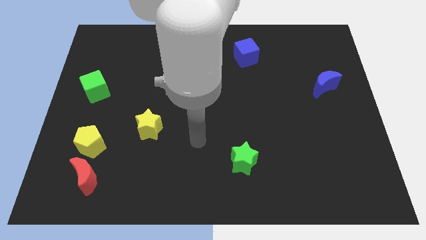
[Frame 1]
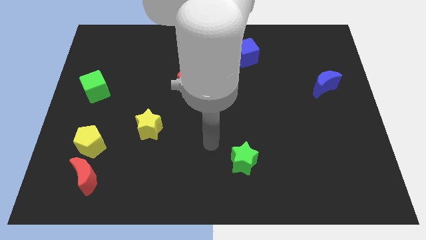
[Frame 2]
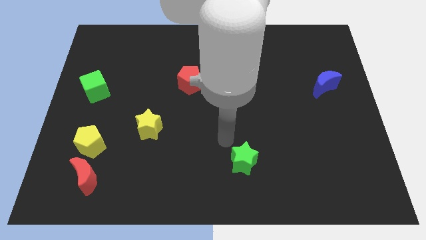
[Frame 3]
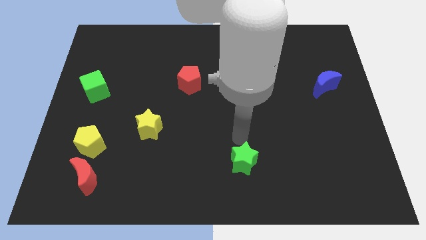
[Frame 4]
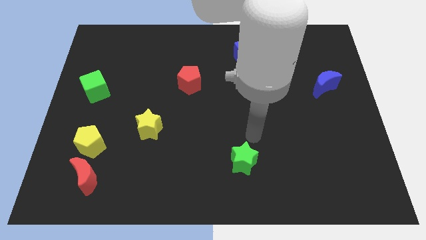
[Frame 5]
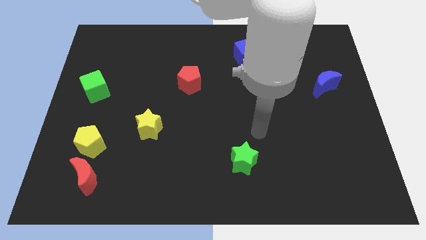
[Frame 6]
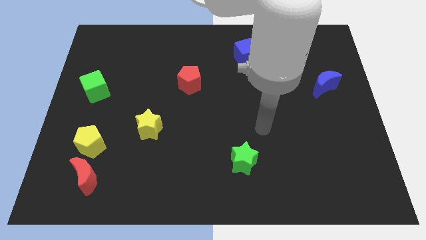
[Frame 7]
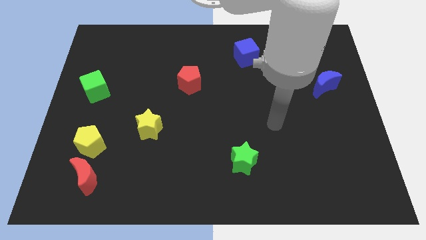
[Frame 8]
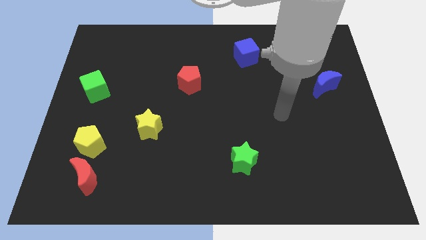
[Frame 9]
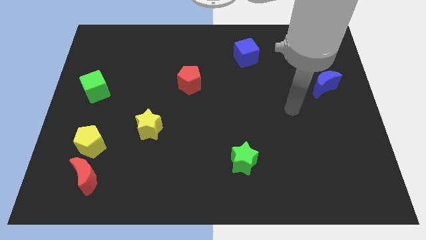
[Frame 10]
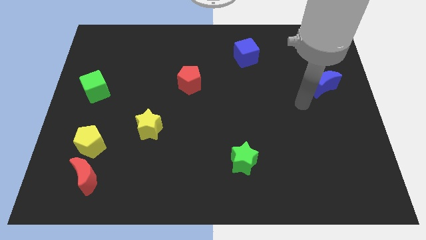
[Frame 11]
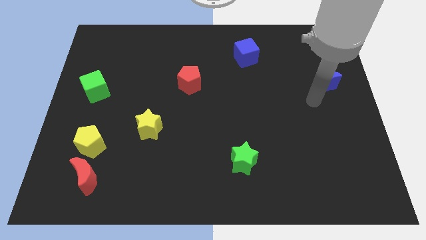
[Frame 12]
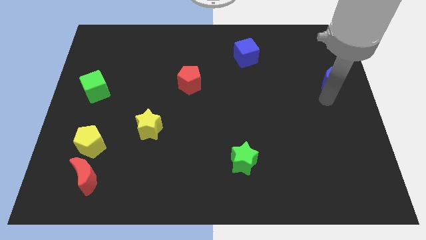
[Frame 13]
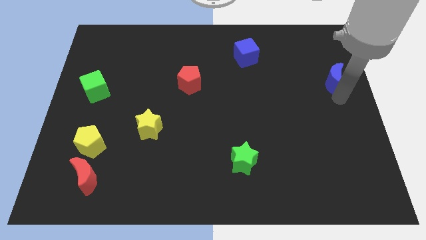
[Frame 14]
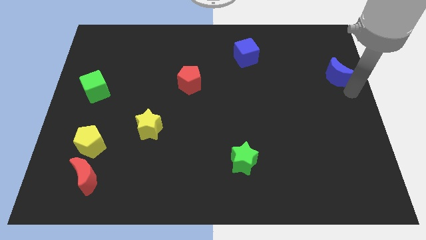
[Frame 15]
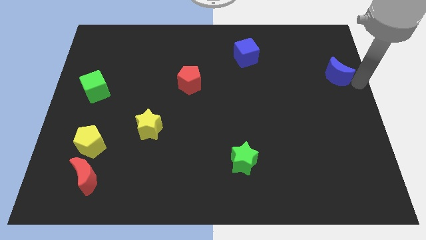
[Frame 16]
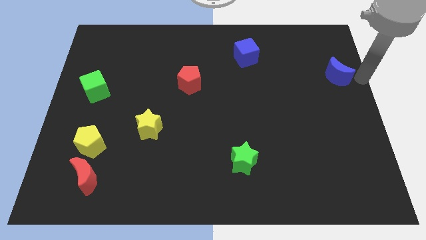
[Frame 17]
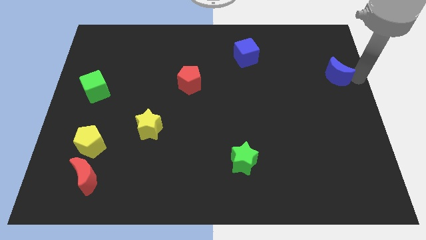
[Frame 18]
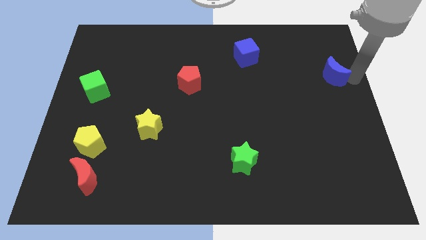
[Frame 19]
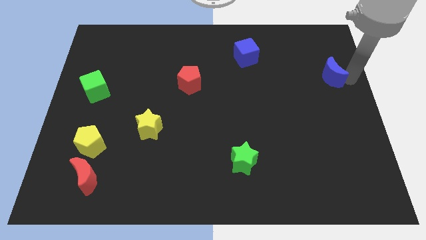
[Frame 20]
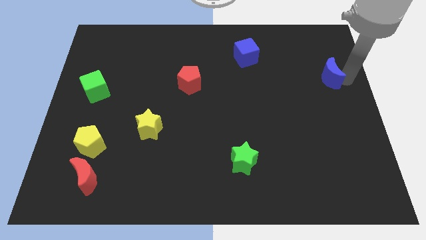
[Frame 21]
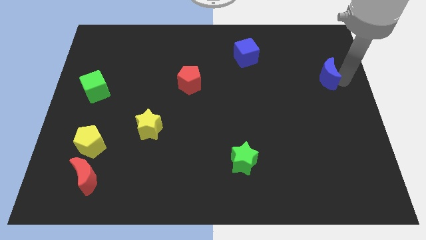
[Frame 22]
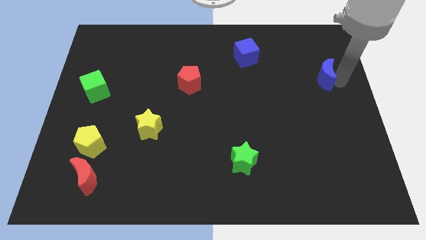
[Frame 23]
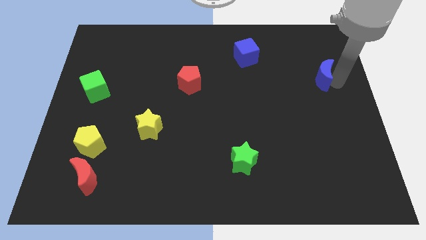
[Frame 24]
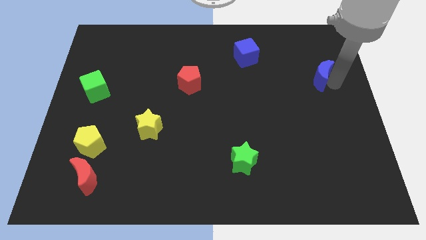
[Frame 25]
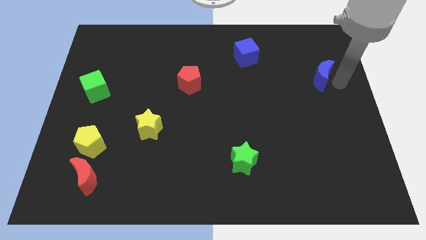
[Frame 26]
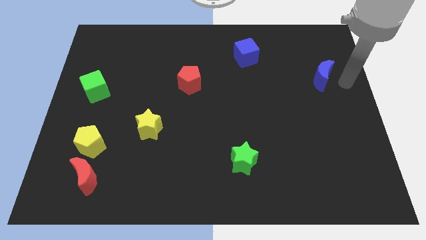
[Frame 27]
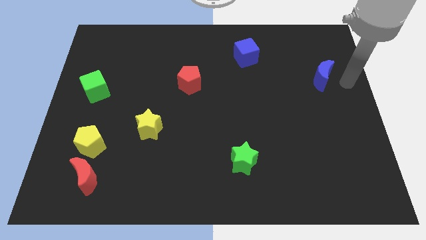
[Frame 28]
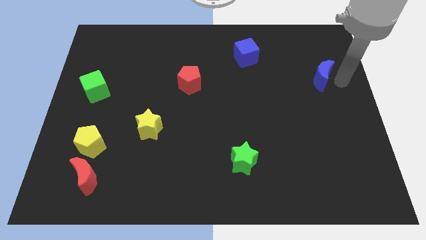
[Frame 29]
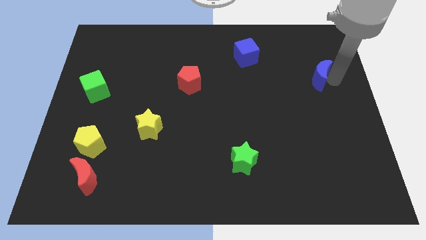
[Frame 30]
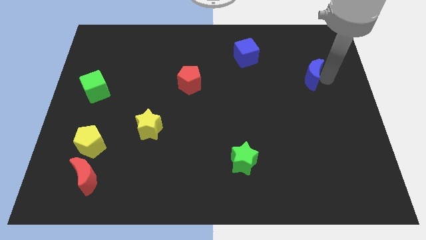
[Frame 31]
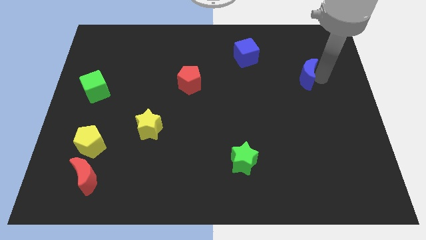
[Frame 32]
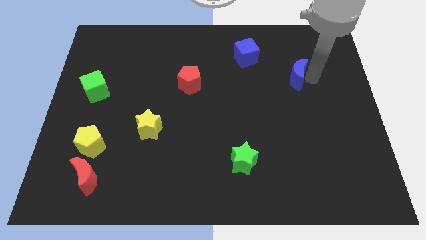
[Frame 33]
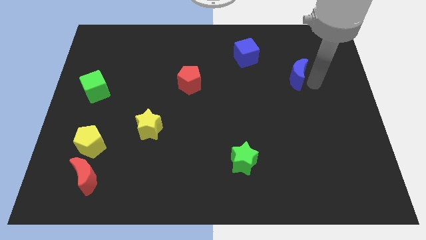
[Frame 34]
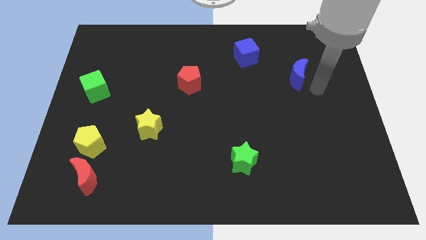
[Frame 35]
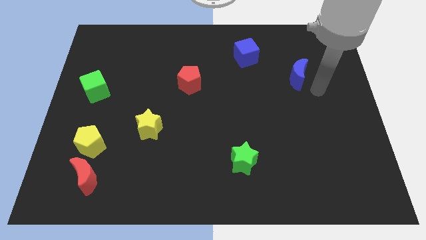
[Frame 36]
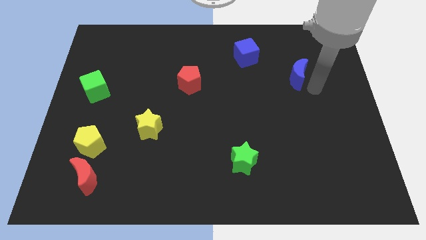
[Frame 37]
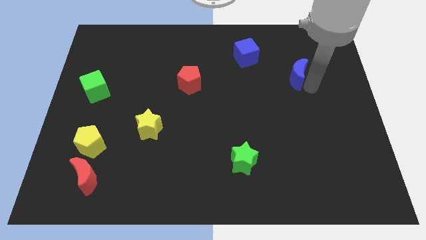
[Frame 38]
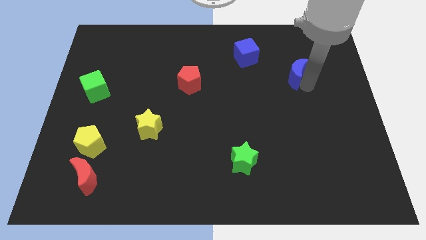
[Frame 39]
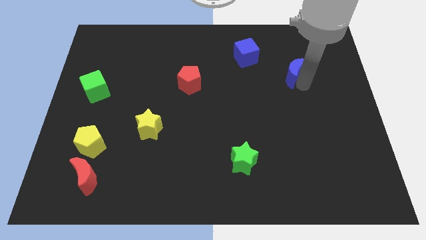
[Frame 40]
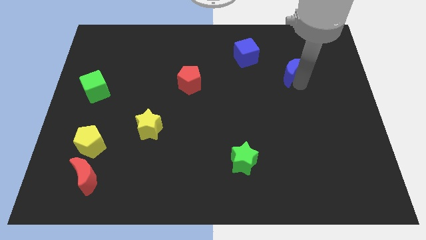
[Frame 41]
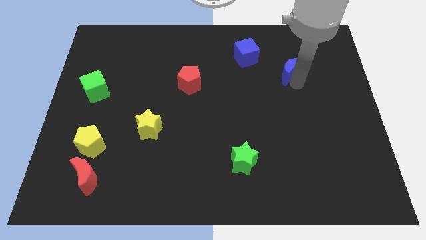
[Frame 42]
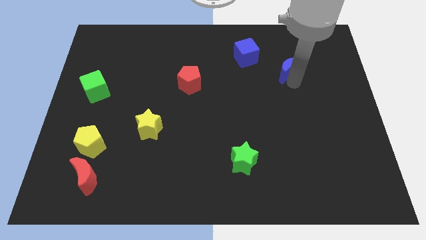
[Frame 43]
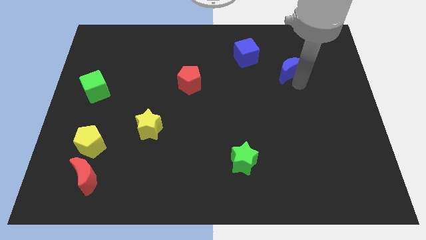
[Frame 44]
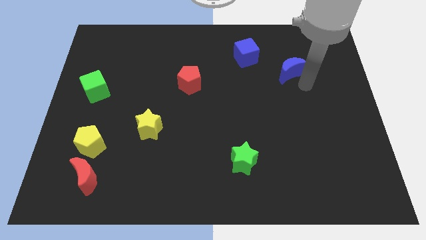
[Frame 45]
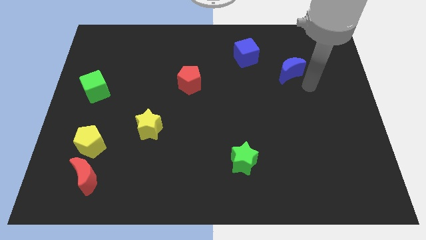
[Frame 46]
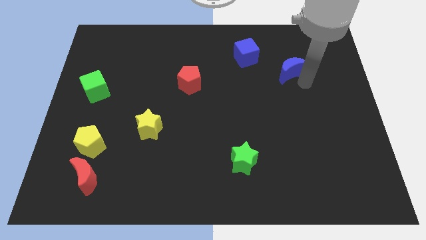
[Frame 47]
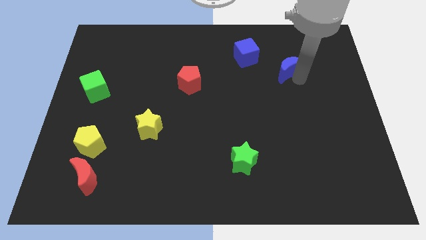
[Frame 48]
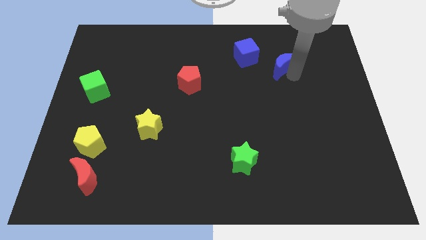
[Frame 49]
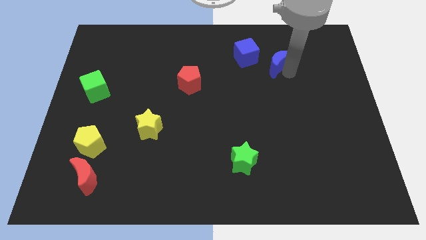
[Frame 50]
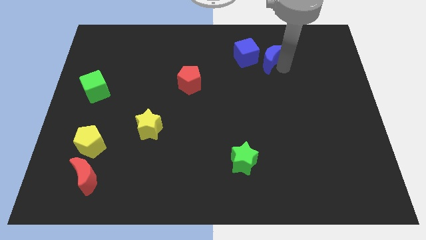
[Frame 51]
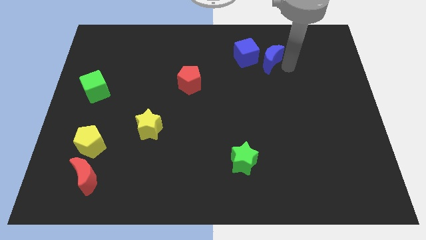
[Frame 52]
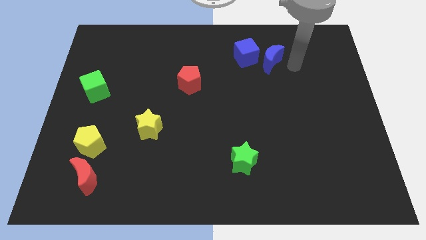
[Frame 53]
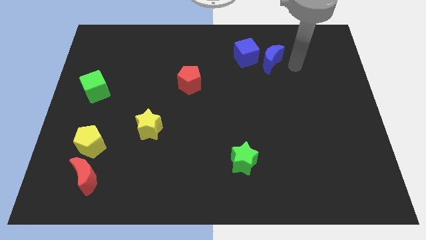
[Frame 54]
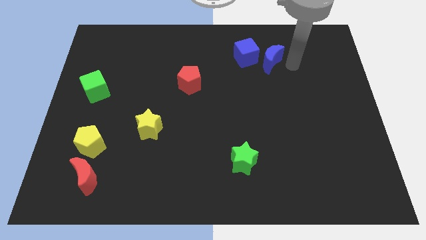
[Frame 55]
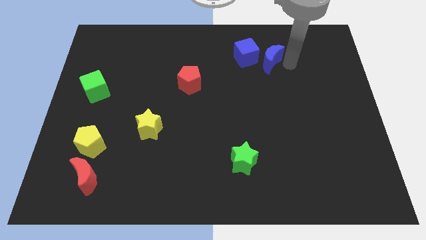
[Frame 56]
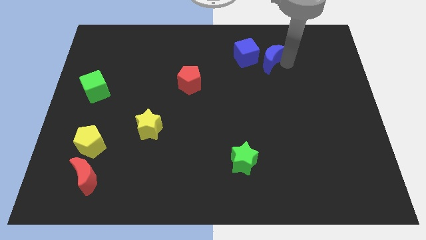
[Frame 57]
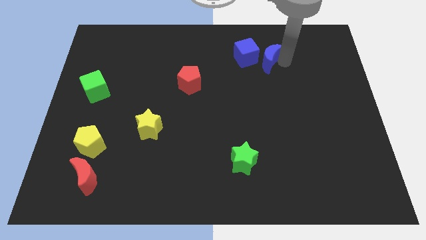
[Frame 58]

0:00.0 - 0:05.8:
put the blue moon towards the blue cube
